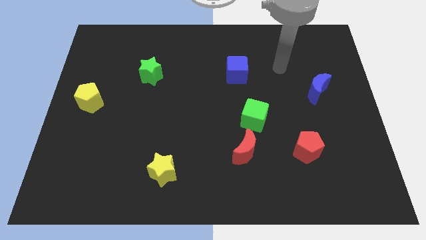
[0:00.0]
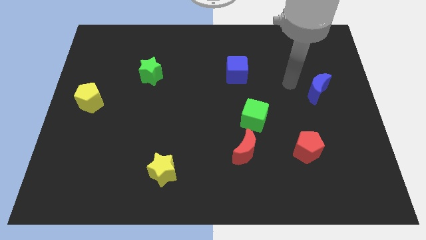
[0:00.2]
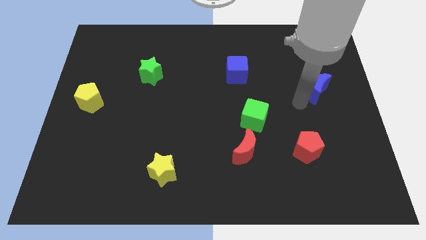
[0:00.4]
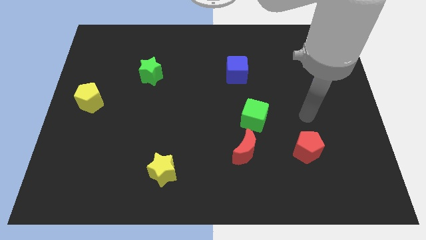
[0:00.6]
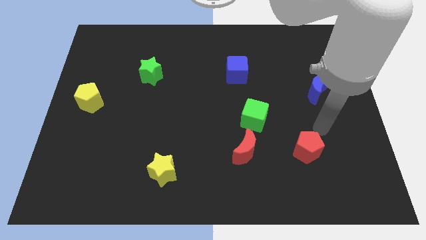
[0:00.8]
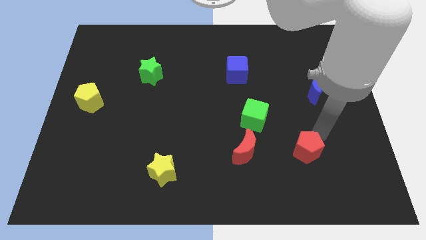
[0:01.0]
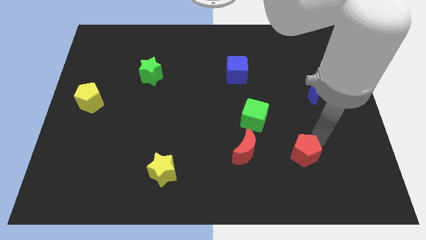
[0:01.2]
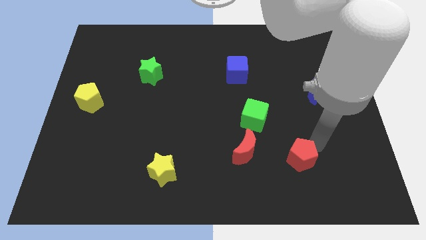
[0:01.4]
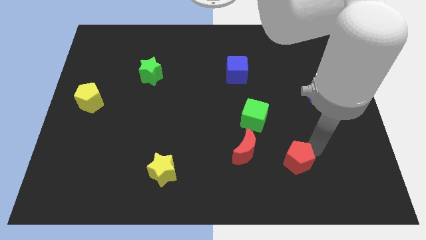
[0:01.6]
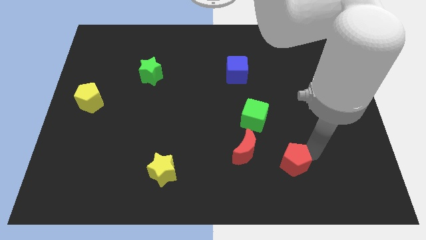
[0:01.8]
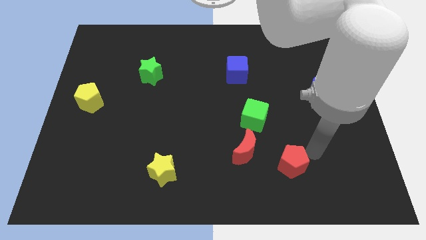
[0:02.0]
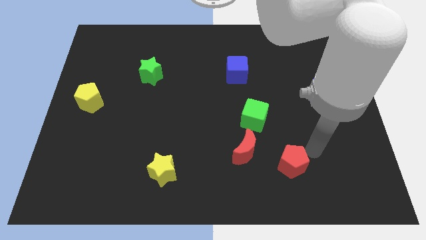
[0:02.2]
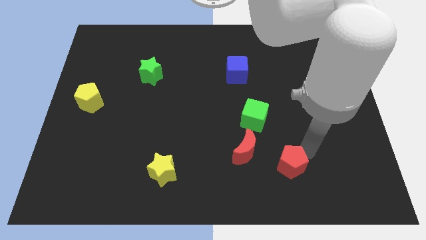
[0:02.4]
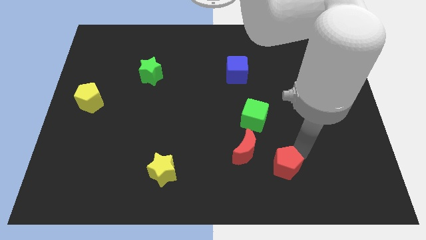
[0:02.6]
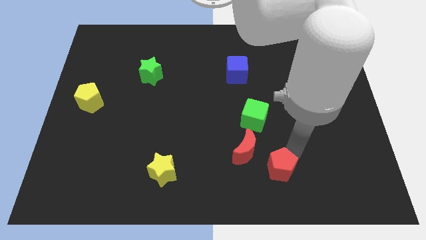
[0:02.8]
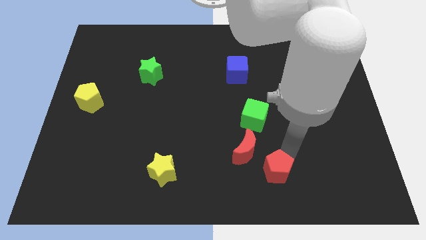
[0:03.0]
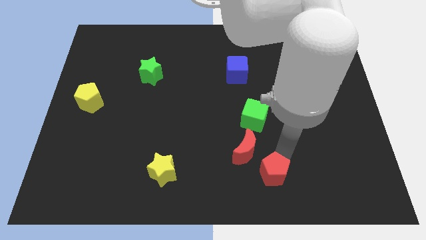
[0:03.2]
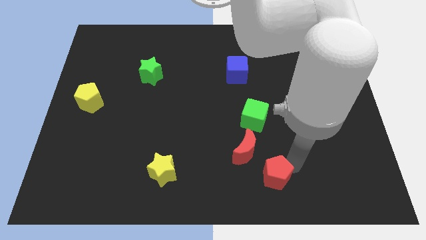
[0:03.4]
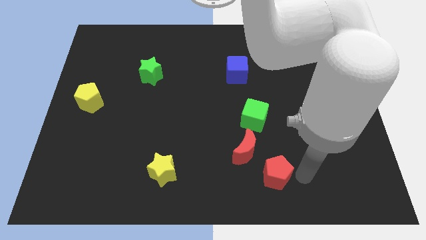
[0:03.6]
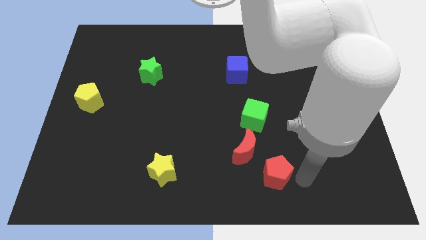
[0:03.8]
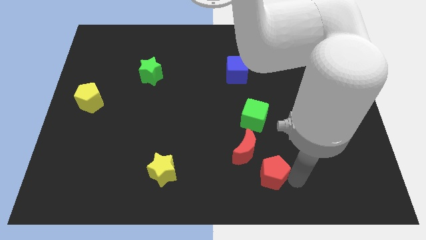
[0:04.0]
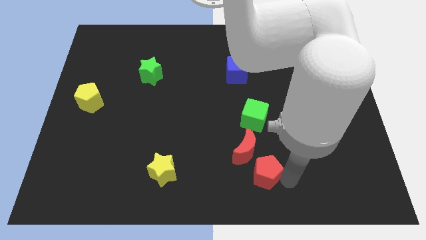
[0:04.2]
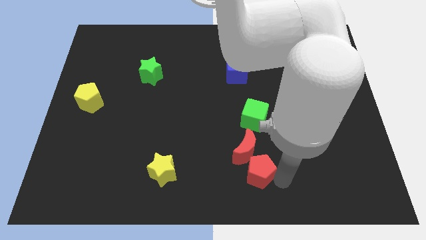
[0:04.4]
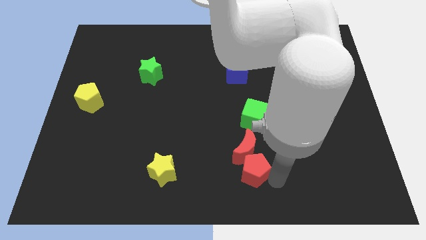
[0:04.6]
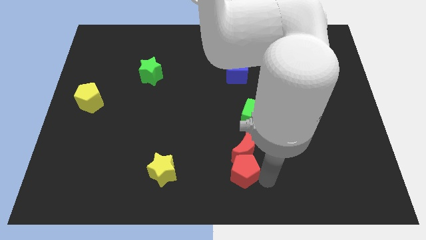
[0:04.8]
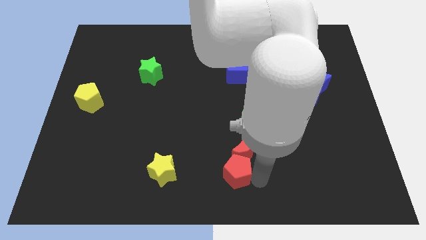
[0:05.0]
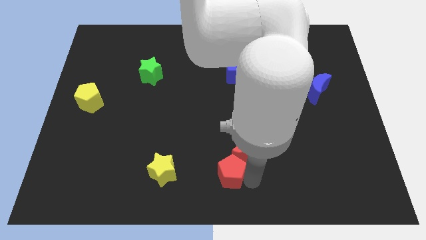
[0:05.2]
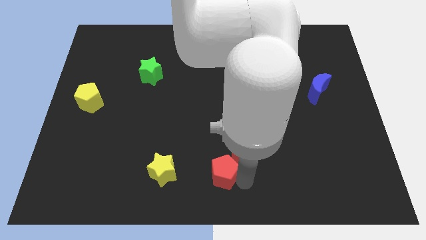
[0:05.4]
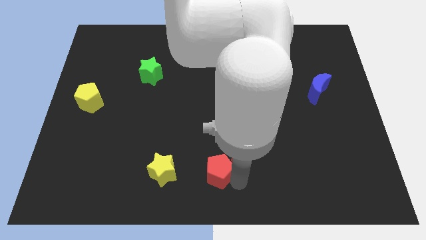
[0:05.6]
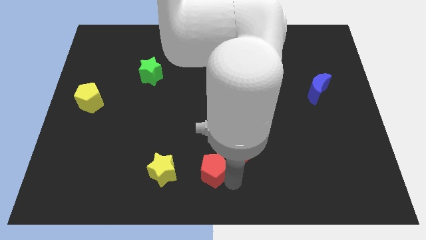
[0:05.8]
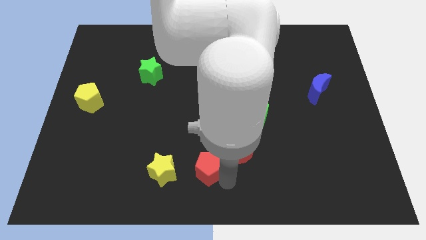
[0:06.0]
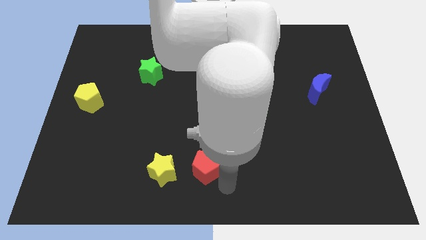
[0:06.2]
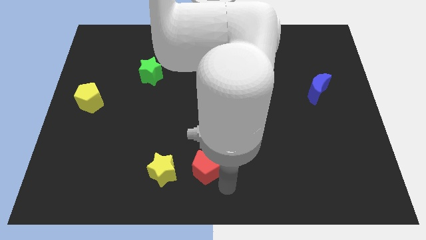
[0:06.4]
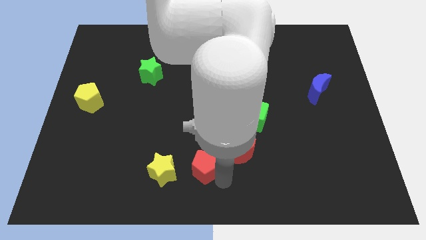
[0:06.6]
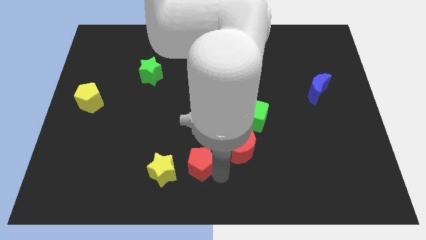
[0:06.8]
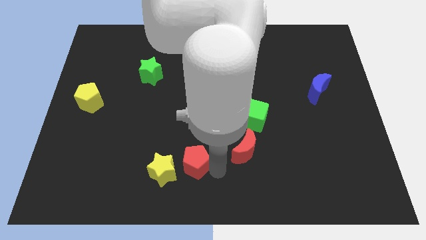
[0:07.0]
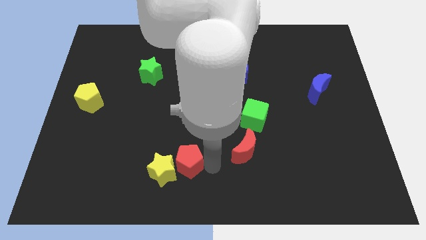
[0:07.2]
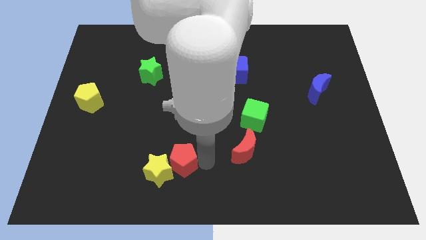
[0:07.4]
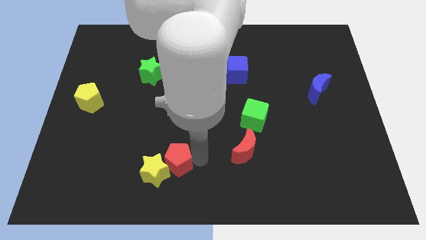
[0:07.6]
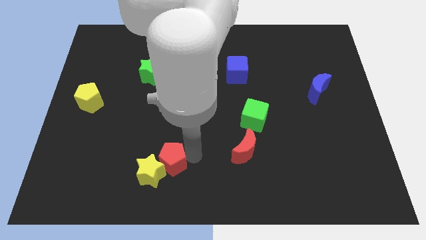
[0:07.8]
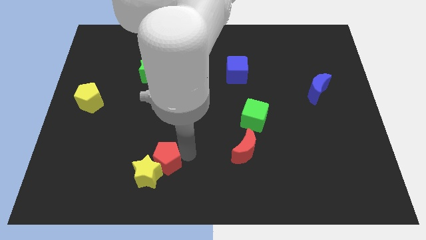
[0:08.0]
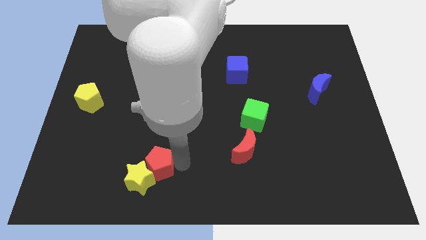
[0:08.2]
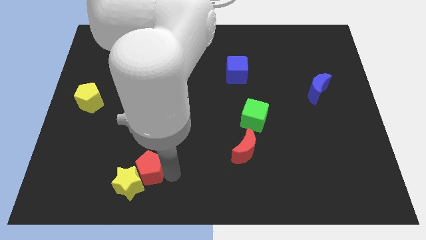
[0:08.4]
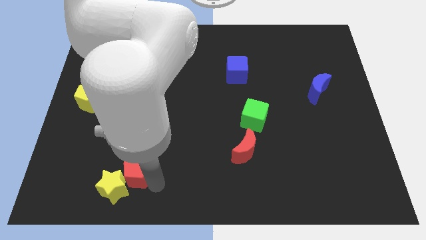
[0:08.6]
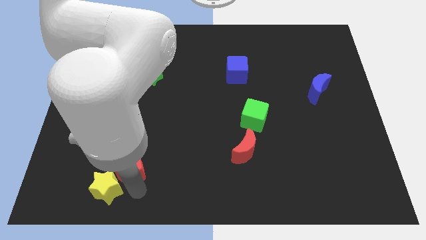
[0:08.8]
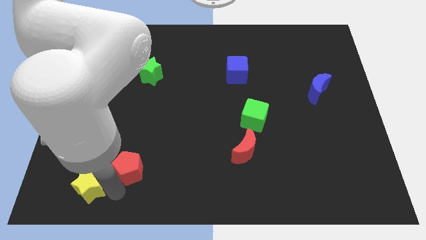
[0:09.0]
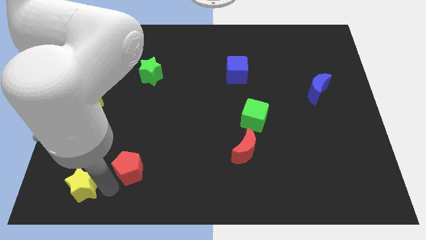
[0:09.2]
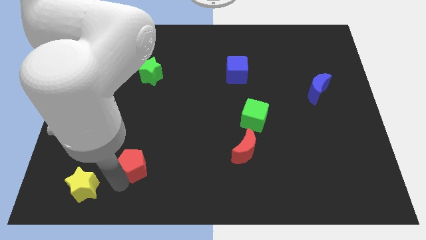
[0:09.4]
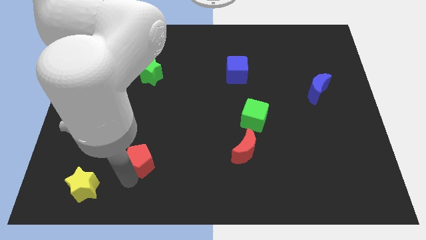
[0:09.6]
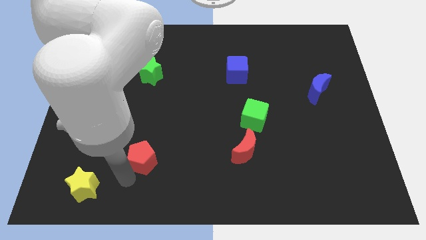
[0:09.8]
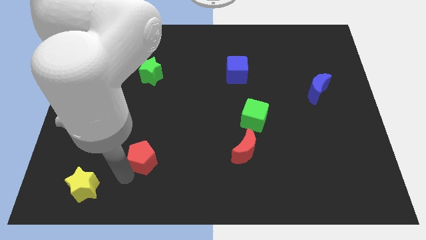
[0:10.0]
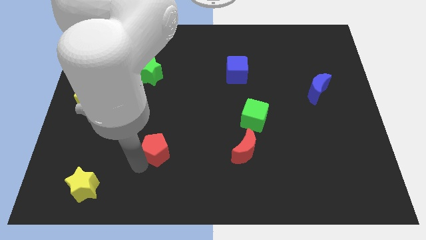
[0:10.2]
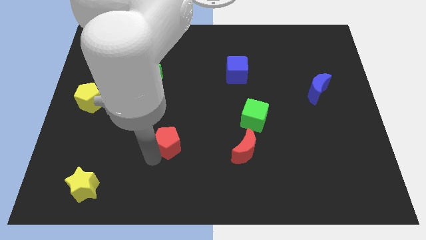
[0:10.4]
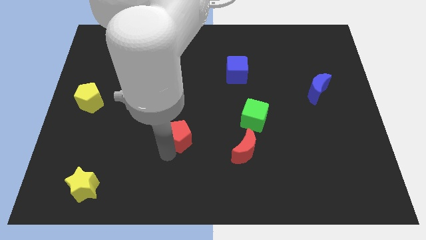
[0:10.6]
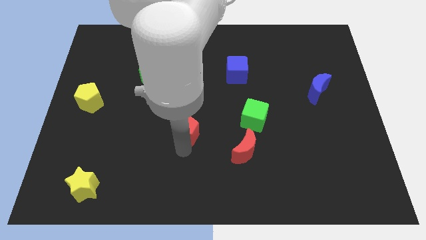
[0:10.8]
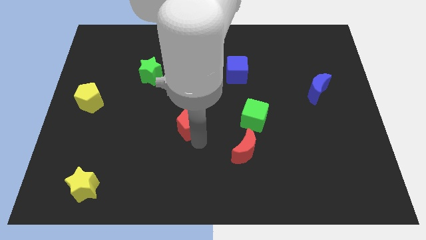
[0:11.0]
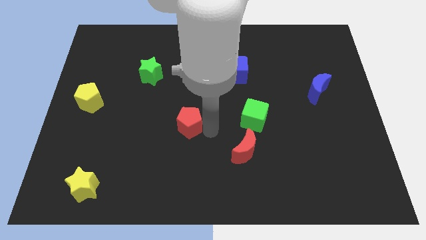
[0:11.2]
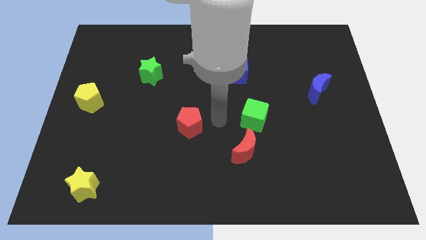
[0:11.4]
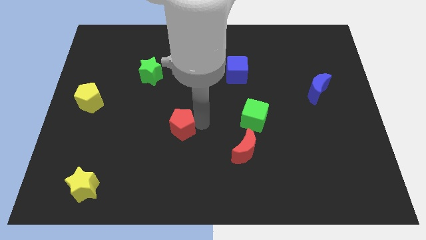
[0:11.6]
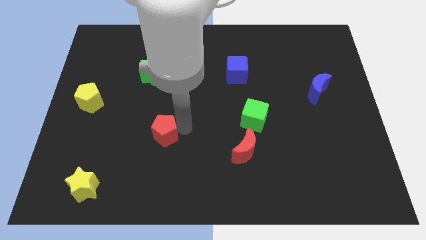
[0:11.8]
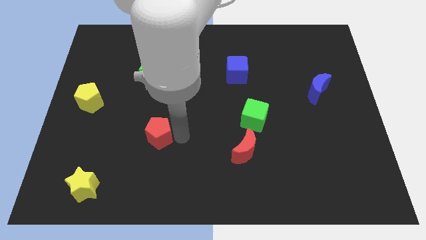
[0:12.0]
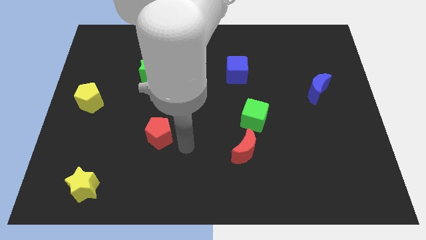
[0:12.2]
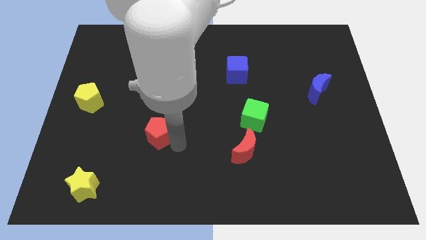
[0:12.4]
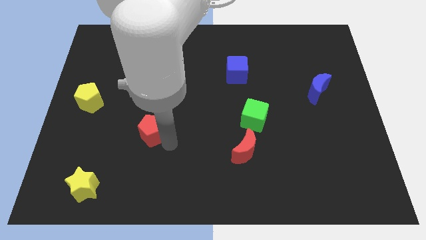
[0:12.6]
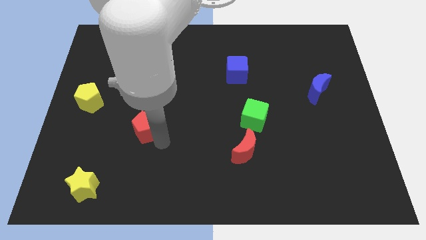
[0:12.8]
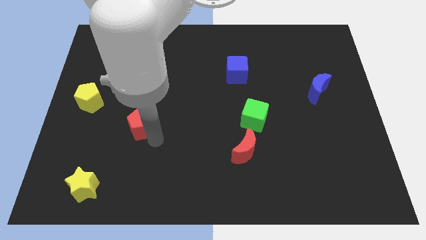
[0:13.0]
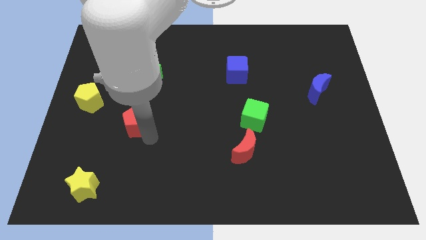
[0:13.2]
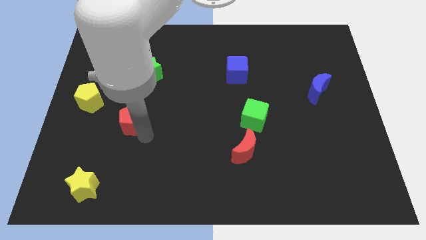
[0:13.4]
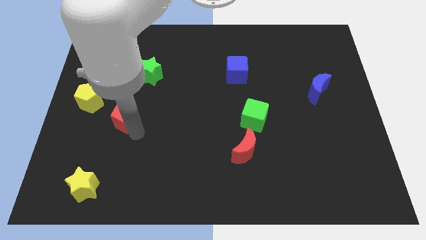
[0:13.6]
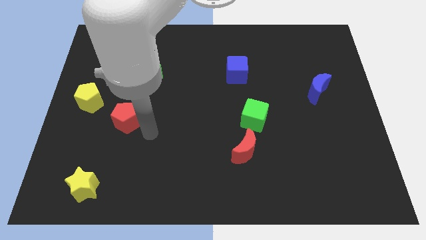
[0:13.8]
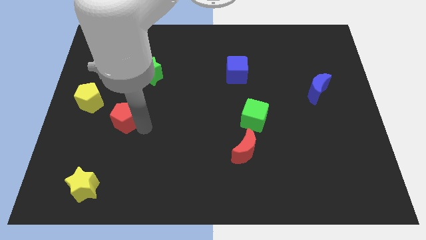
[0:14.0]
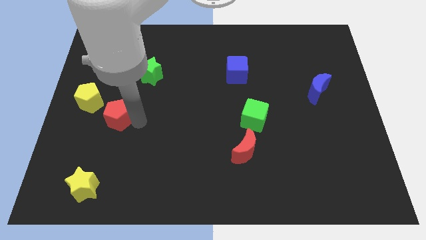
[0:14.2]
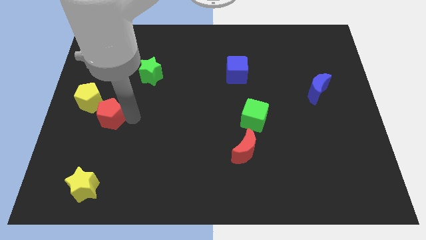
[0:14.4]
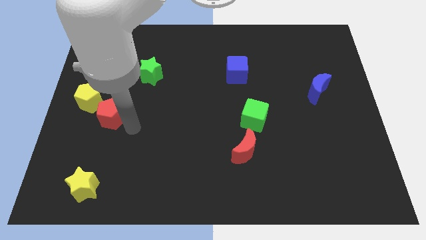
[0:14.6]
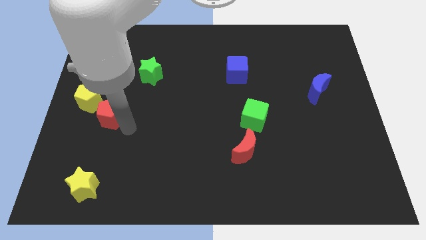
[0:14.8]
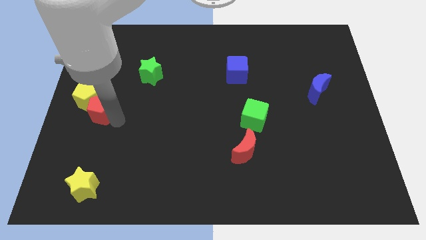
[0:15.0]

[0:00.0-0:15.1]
push the red pentagon towards the yellow pentagon
